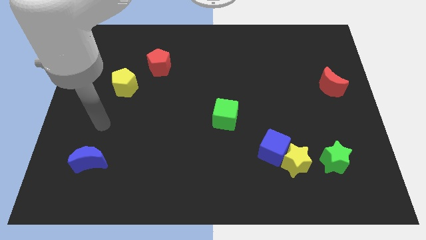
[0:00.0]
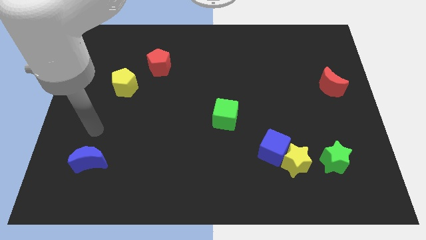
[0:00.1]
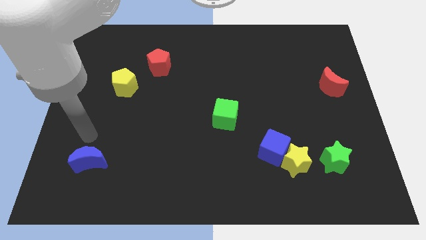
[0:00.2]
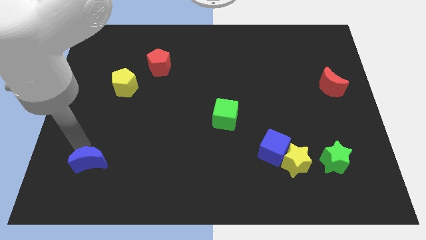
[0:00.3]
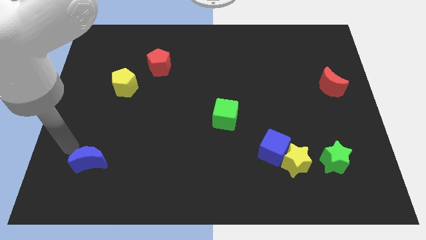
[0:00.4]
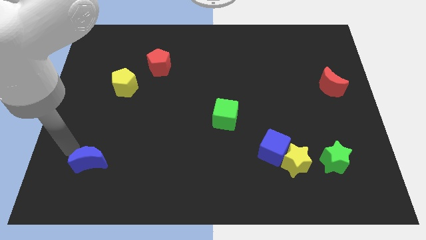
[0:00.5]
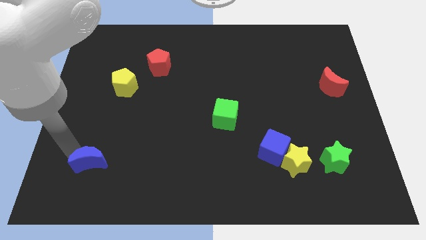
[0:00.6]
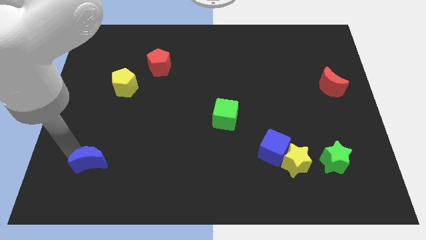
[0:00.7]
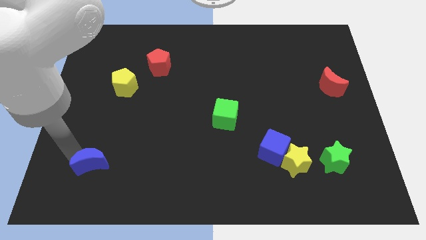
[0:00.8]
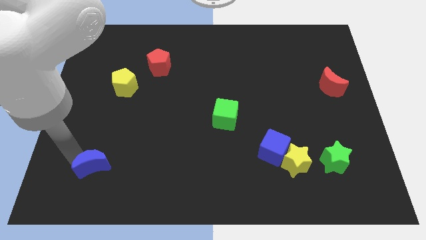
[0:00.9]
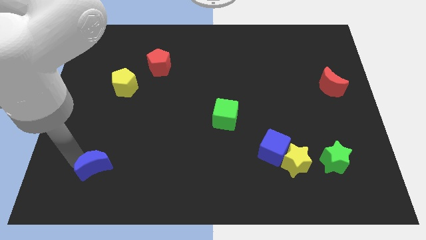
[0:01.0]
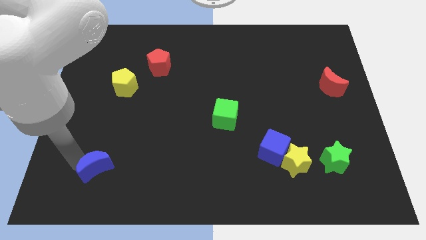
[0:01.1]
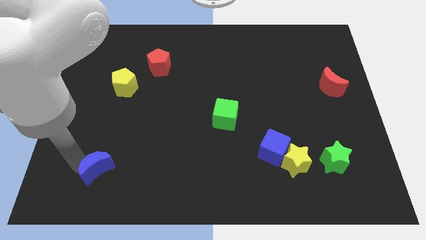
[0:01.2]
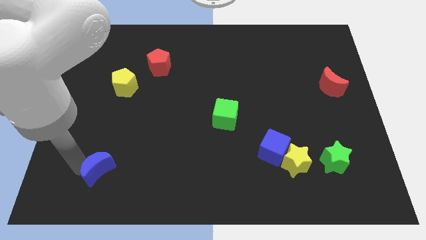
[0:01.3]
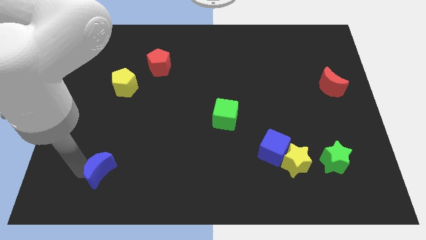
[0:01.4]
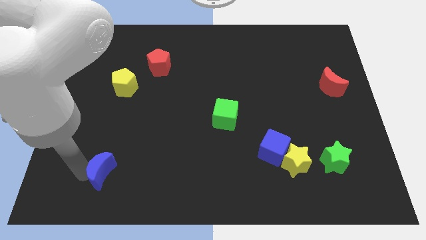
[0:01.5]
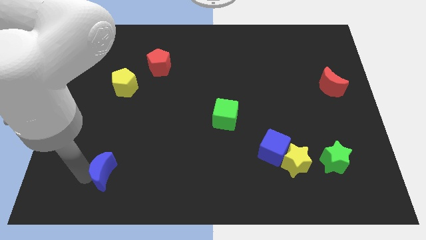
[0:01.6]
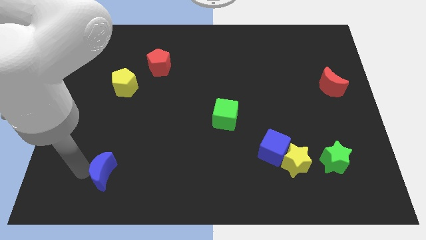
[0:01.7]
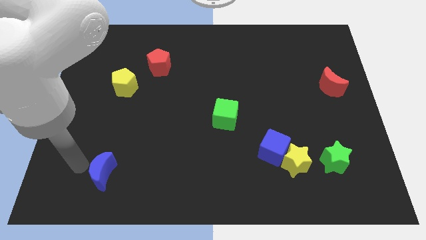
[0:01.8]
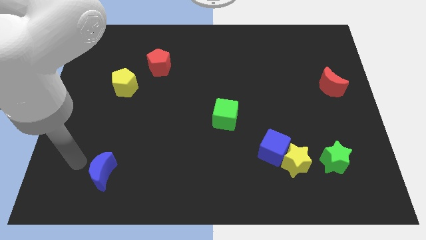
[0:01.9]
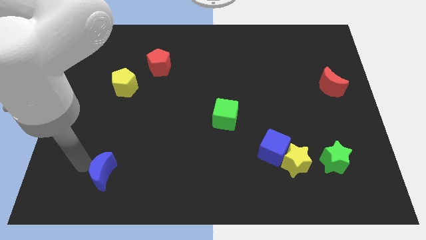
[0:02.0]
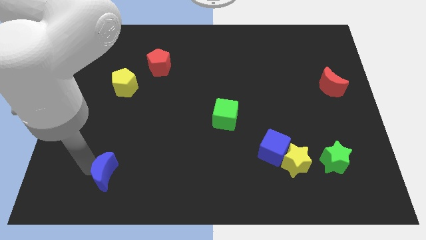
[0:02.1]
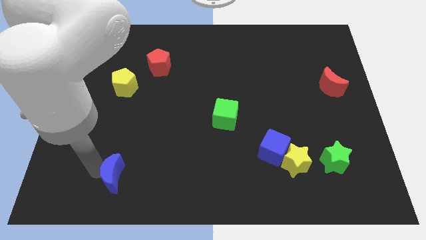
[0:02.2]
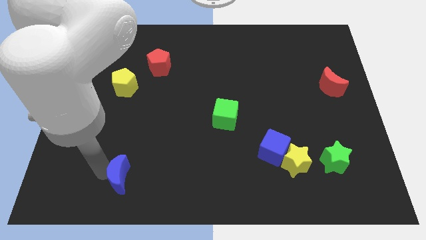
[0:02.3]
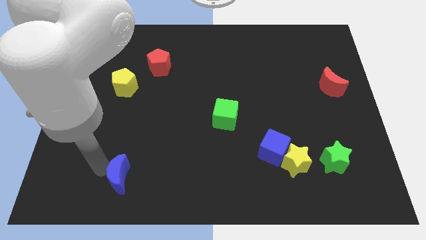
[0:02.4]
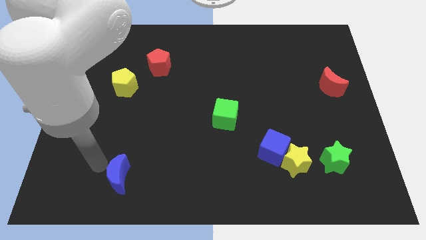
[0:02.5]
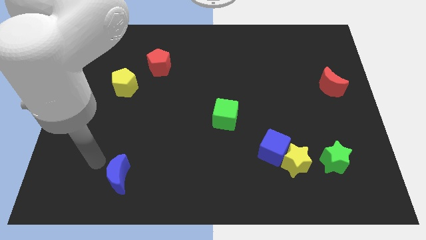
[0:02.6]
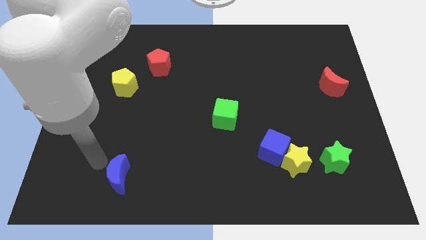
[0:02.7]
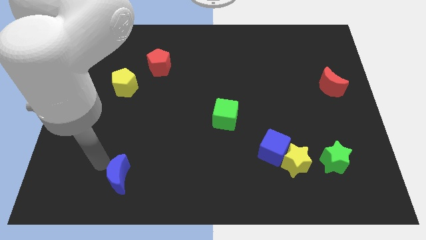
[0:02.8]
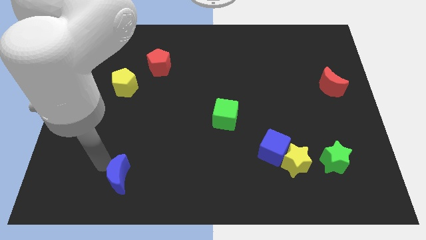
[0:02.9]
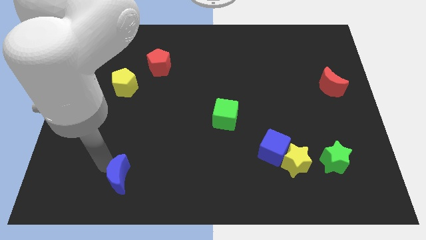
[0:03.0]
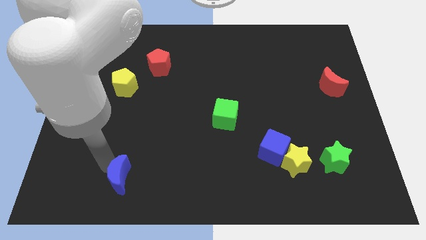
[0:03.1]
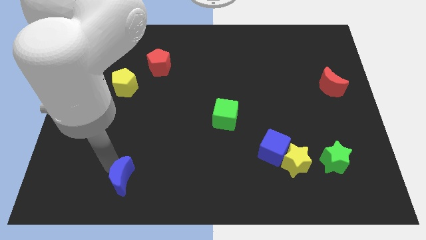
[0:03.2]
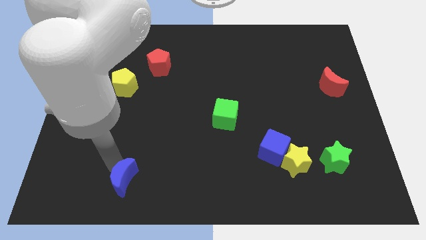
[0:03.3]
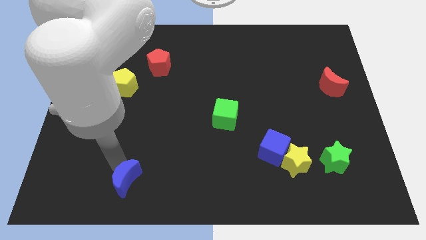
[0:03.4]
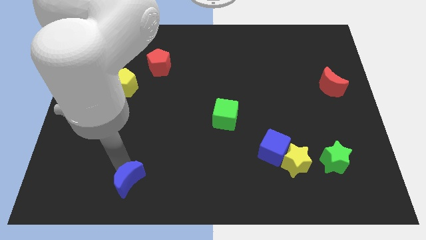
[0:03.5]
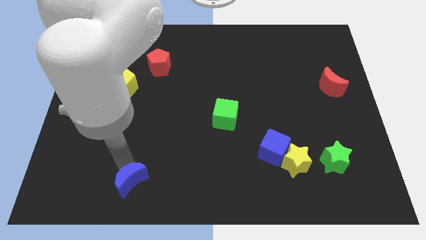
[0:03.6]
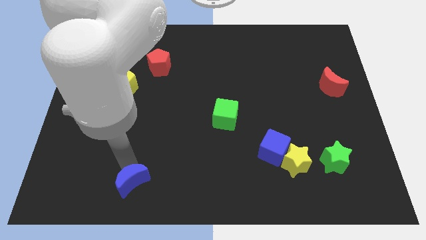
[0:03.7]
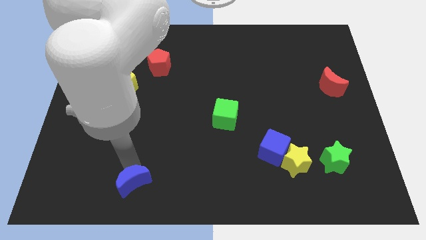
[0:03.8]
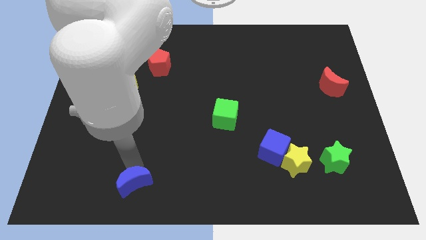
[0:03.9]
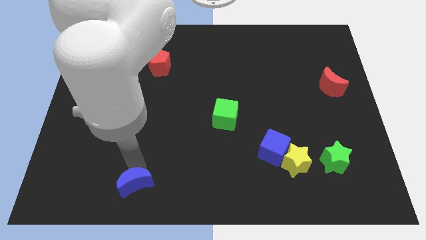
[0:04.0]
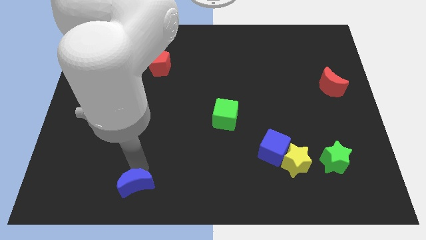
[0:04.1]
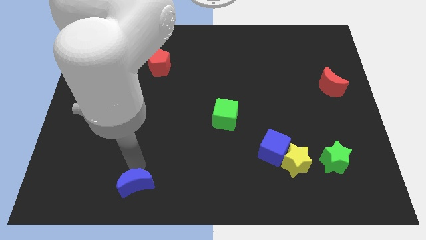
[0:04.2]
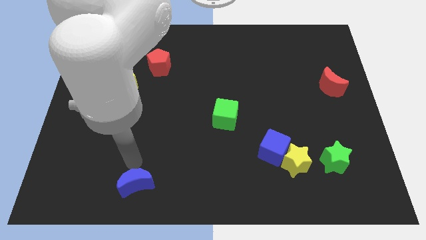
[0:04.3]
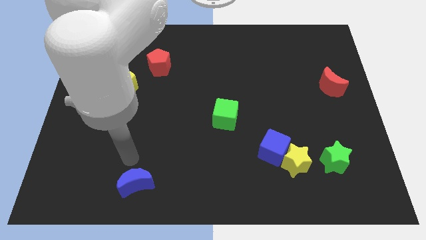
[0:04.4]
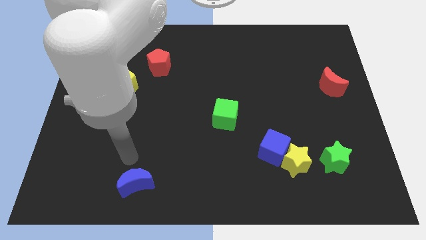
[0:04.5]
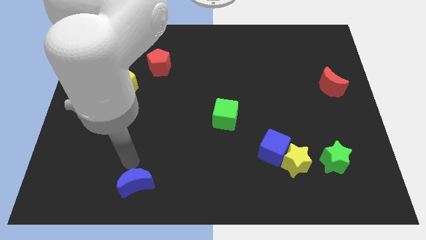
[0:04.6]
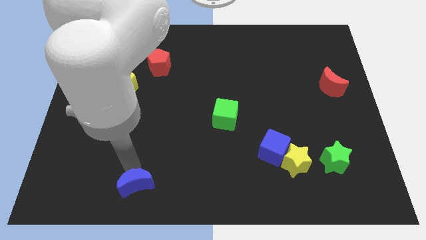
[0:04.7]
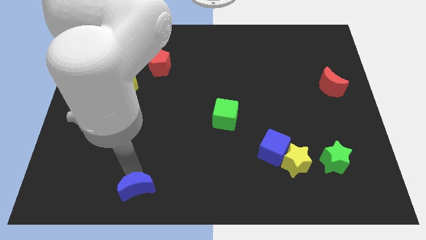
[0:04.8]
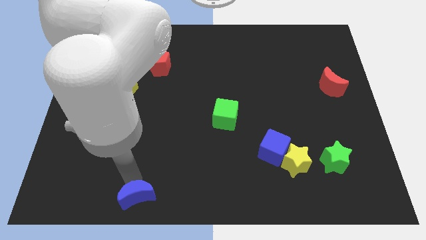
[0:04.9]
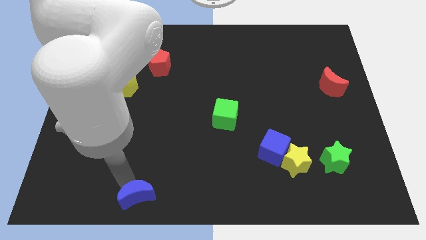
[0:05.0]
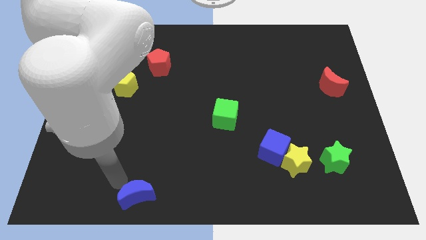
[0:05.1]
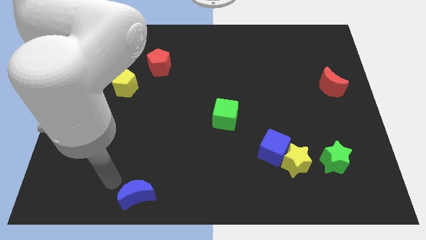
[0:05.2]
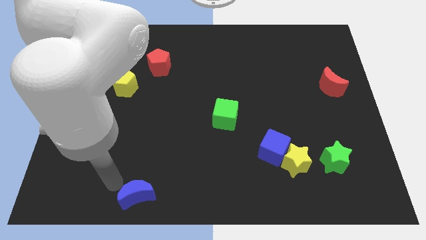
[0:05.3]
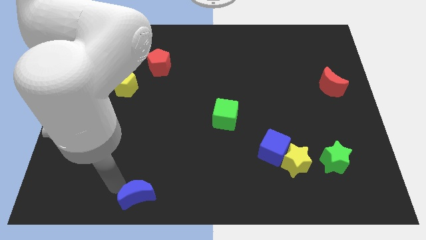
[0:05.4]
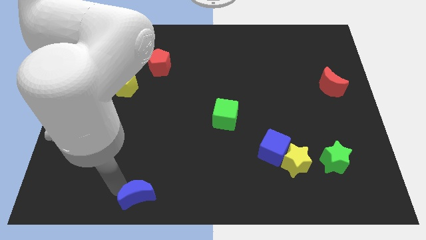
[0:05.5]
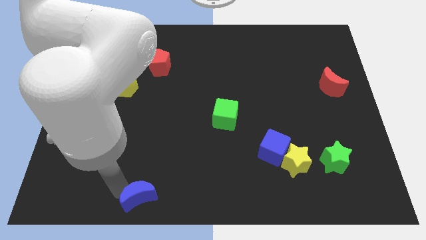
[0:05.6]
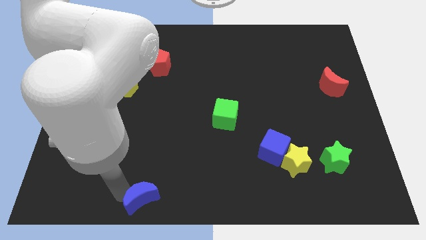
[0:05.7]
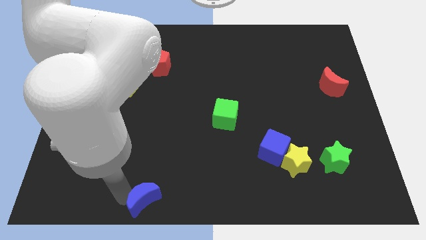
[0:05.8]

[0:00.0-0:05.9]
push the blue moon to the bottom side

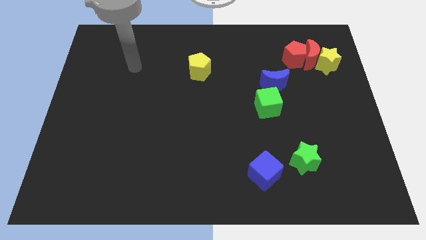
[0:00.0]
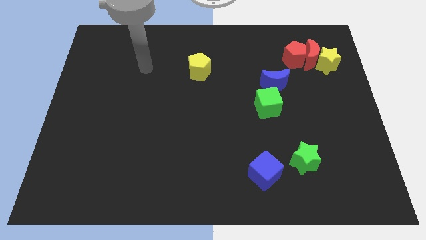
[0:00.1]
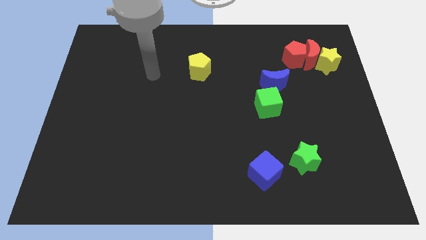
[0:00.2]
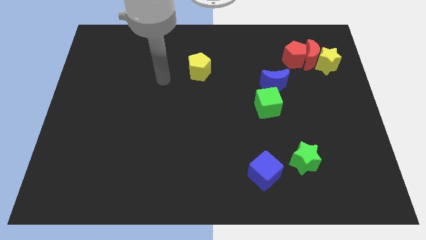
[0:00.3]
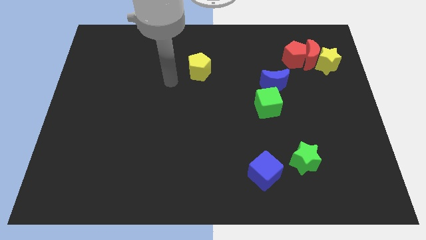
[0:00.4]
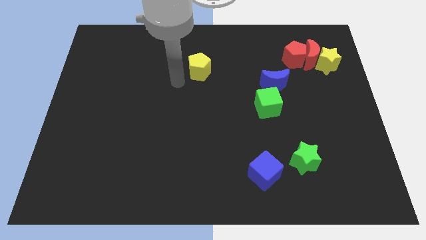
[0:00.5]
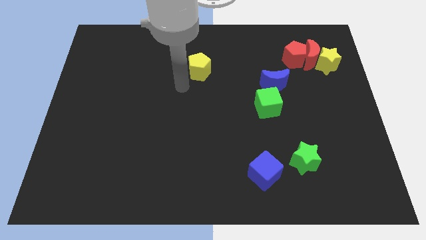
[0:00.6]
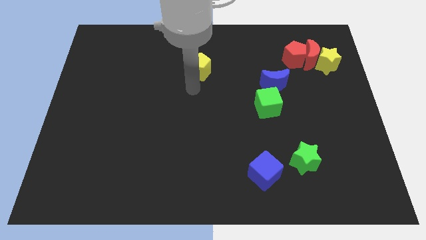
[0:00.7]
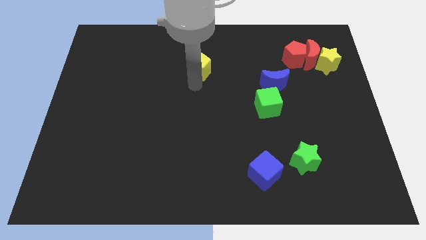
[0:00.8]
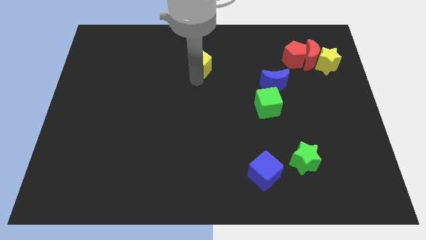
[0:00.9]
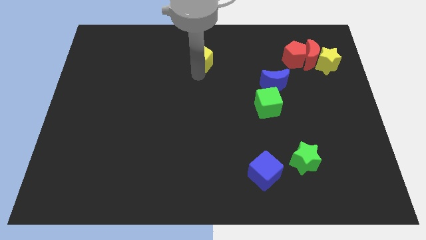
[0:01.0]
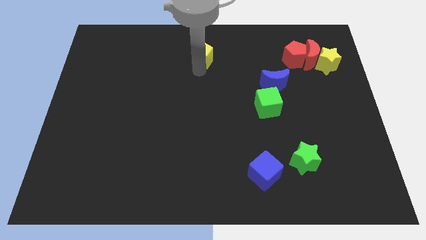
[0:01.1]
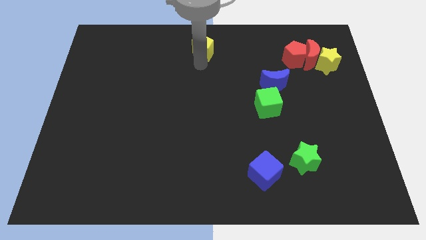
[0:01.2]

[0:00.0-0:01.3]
slide the yellow pentagon to the top
